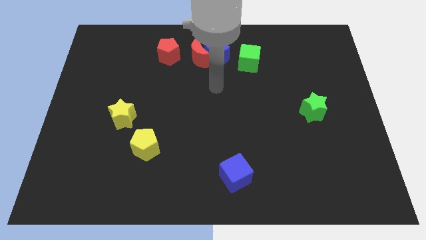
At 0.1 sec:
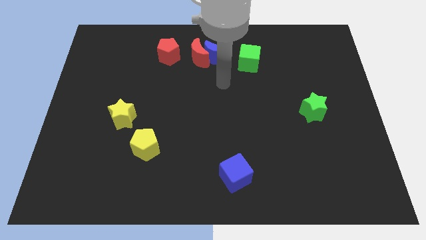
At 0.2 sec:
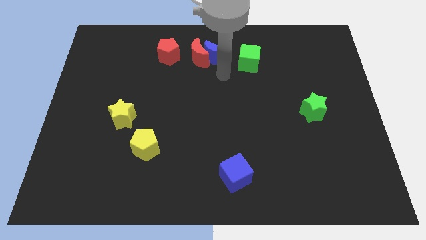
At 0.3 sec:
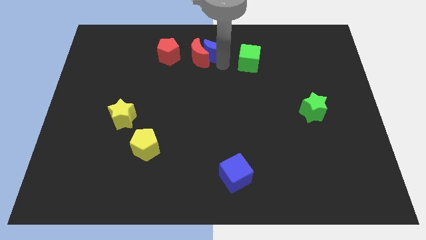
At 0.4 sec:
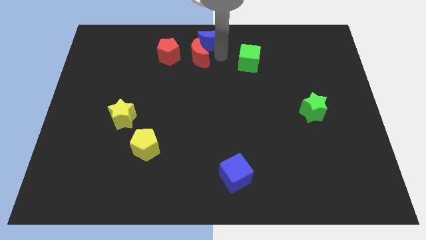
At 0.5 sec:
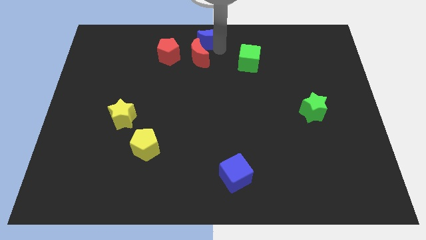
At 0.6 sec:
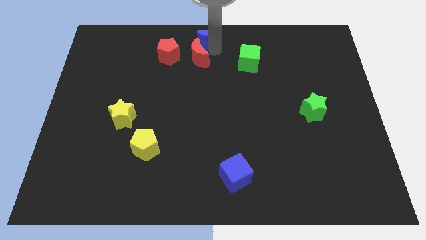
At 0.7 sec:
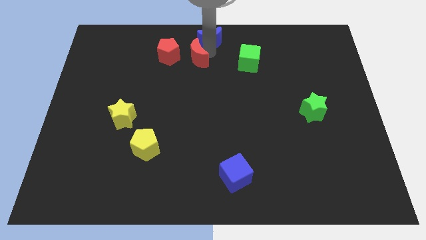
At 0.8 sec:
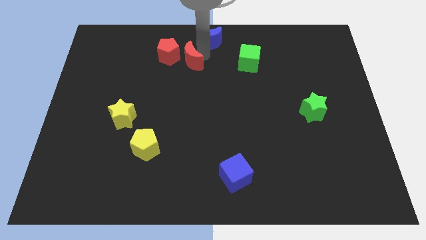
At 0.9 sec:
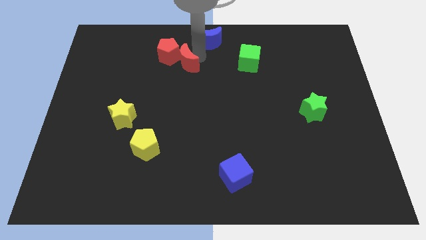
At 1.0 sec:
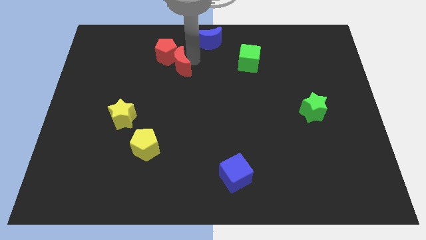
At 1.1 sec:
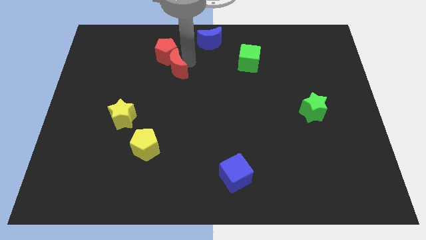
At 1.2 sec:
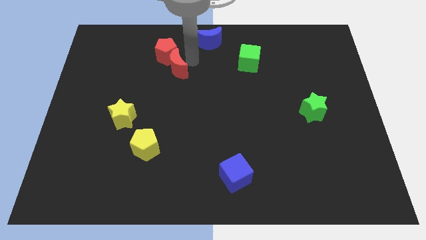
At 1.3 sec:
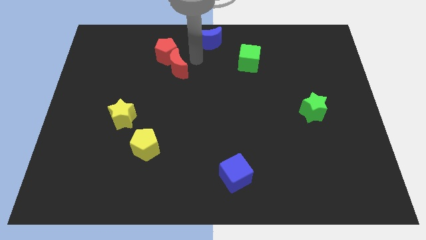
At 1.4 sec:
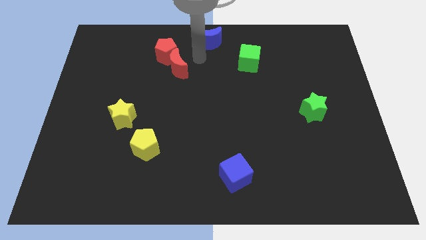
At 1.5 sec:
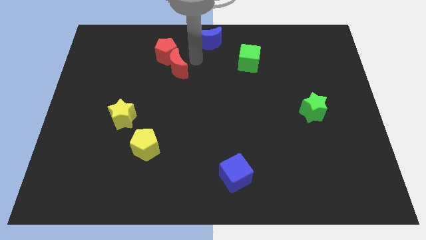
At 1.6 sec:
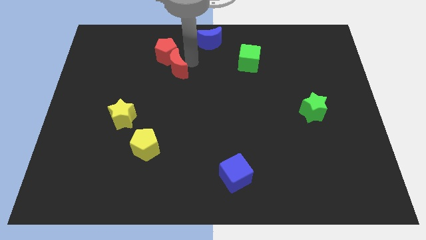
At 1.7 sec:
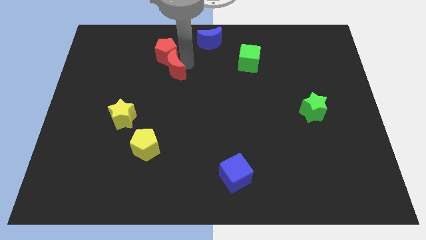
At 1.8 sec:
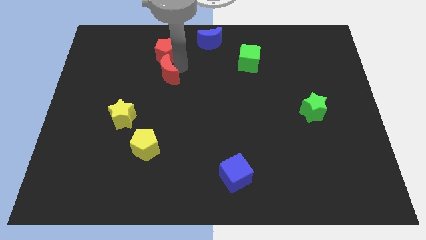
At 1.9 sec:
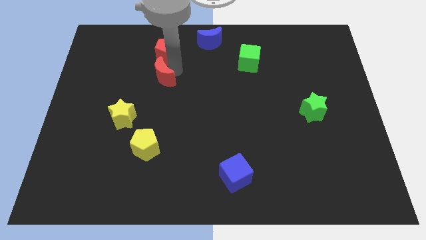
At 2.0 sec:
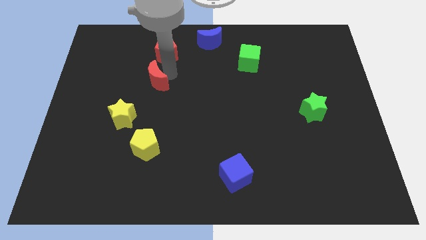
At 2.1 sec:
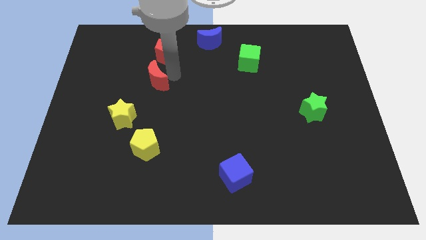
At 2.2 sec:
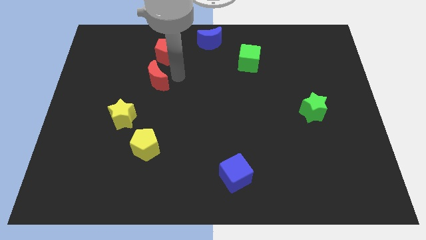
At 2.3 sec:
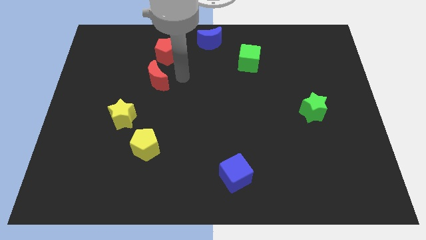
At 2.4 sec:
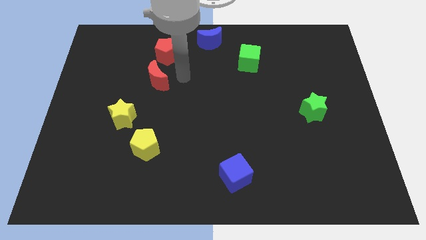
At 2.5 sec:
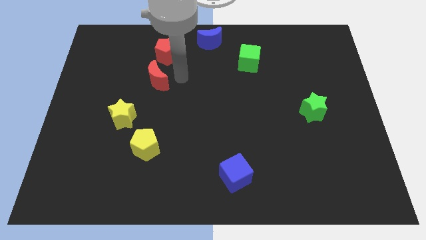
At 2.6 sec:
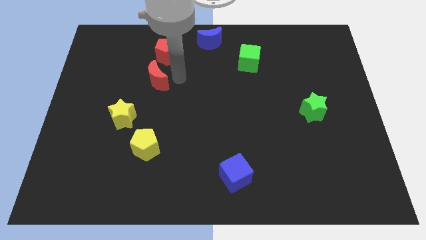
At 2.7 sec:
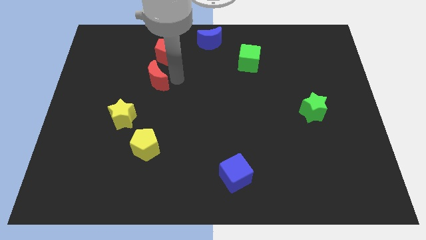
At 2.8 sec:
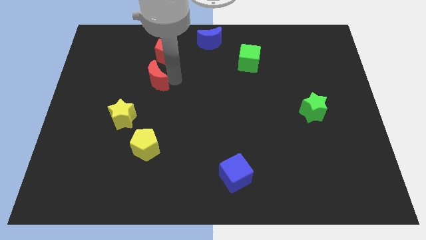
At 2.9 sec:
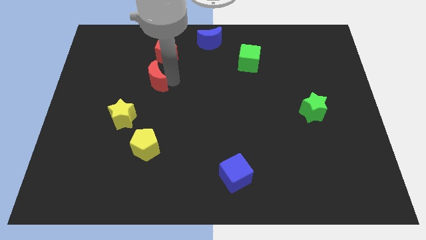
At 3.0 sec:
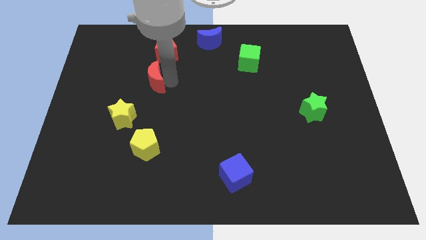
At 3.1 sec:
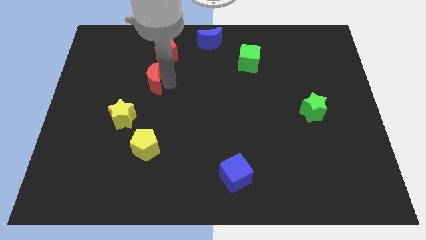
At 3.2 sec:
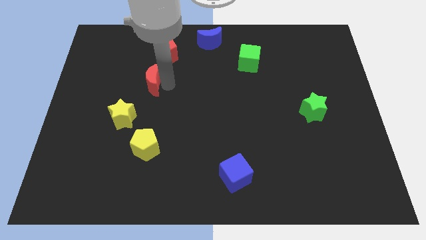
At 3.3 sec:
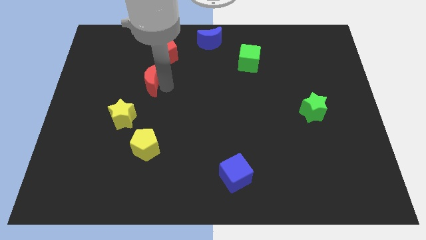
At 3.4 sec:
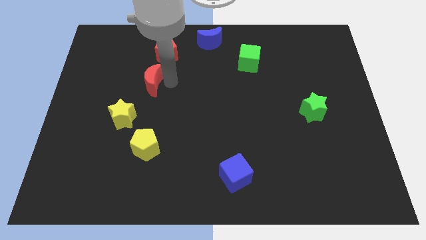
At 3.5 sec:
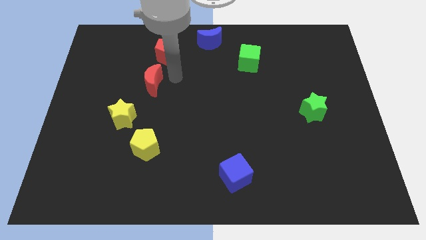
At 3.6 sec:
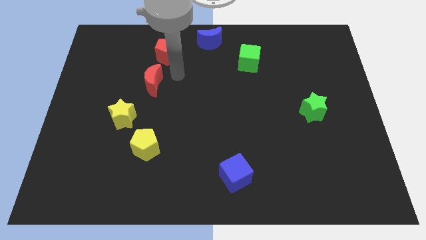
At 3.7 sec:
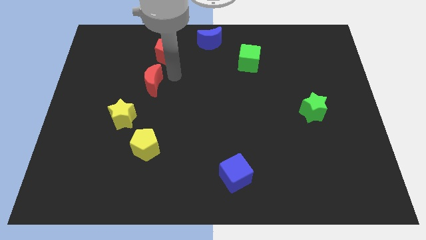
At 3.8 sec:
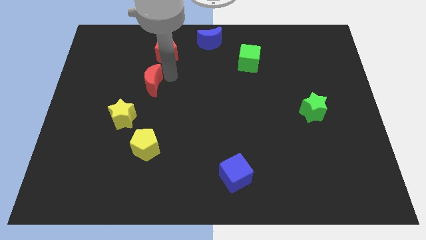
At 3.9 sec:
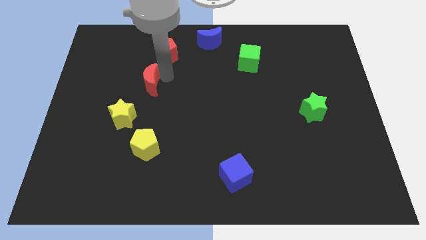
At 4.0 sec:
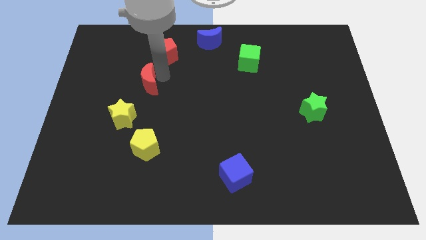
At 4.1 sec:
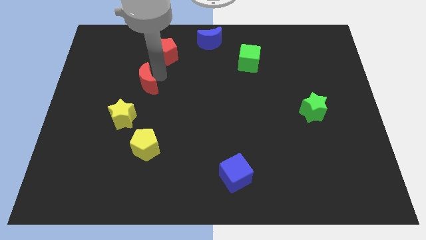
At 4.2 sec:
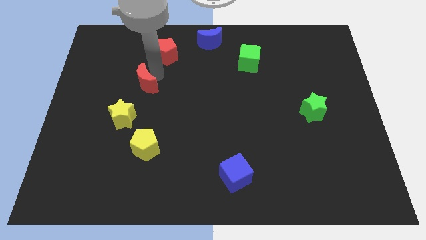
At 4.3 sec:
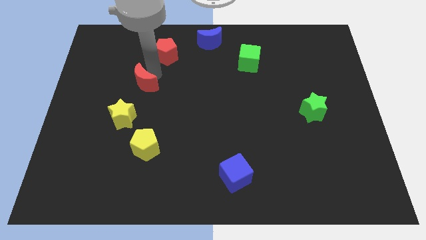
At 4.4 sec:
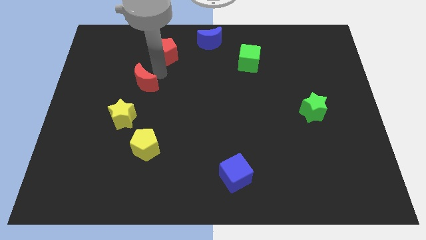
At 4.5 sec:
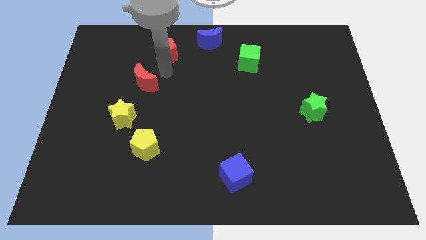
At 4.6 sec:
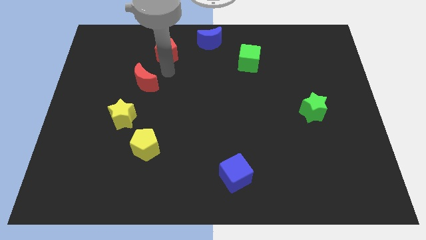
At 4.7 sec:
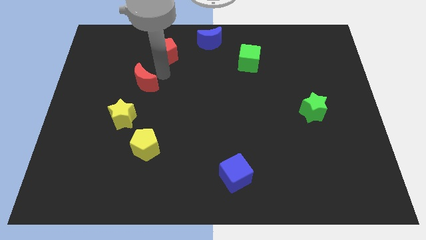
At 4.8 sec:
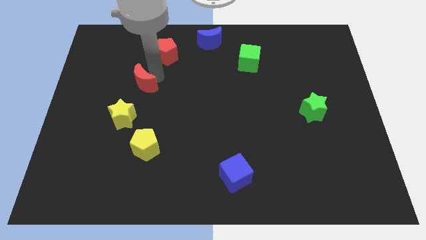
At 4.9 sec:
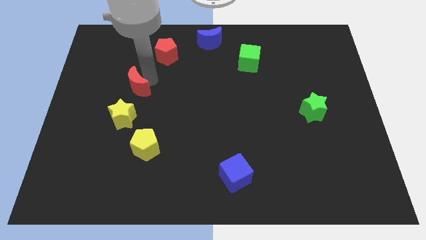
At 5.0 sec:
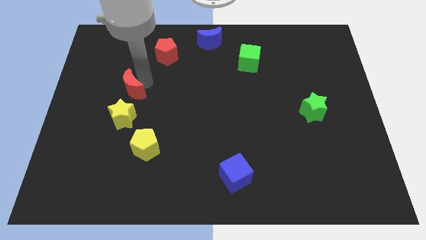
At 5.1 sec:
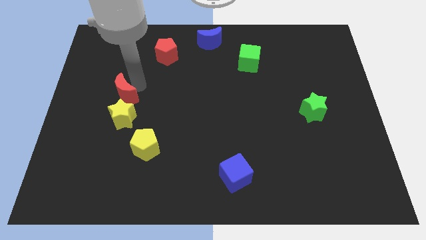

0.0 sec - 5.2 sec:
slide the red moon downwards and to the left diagonally

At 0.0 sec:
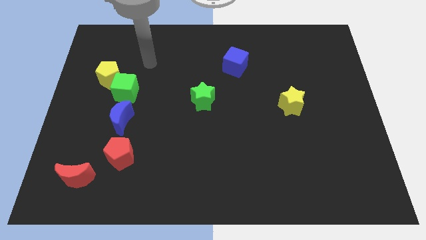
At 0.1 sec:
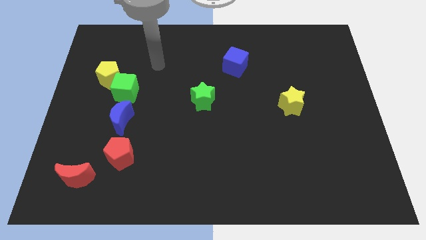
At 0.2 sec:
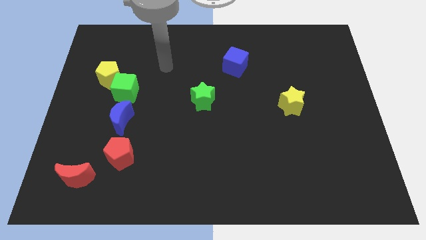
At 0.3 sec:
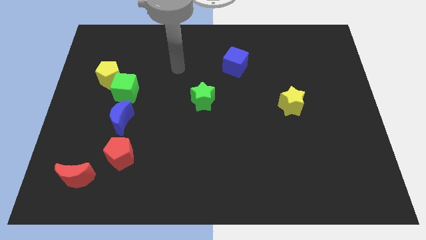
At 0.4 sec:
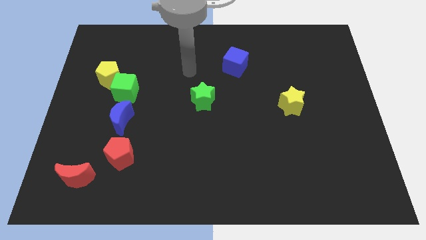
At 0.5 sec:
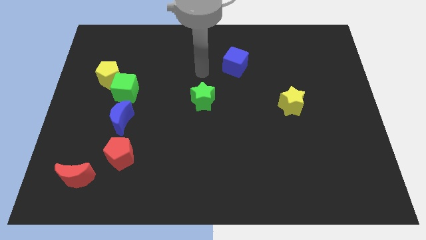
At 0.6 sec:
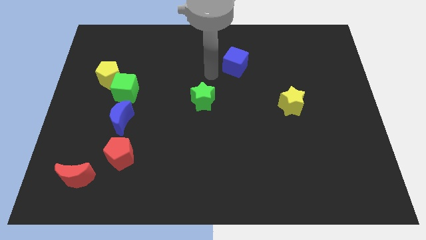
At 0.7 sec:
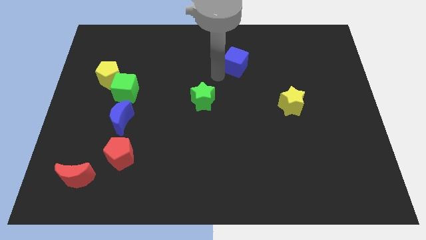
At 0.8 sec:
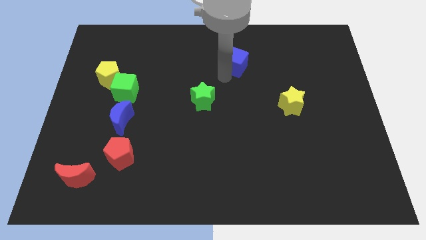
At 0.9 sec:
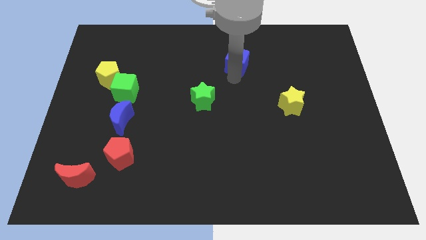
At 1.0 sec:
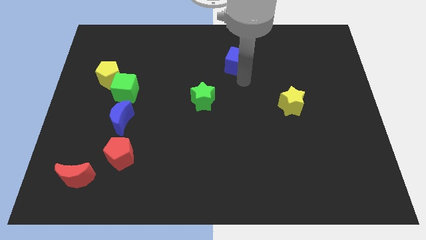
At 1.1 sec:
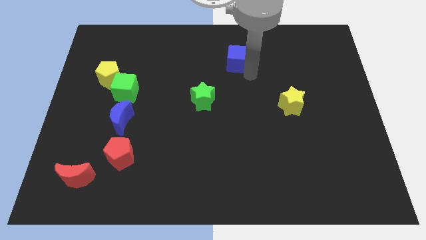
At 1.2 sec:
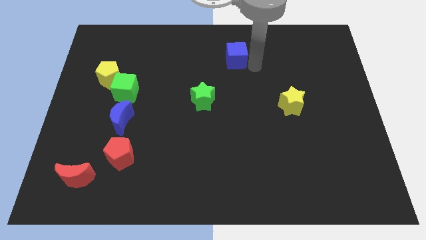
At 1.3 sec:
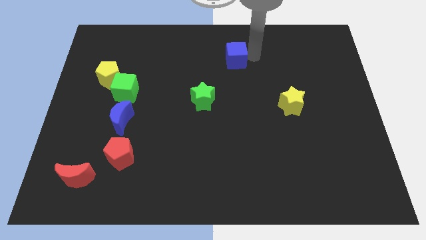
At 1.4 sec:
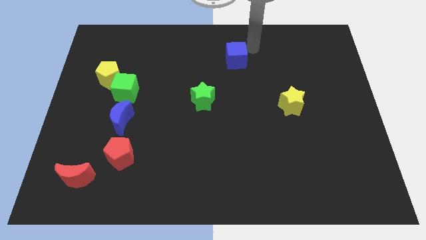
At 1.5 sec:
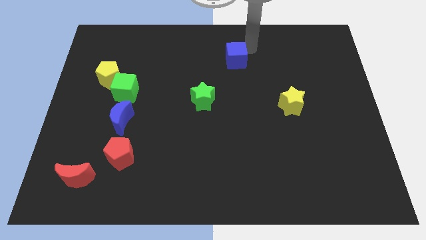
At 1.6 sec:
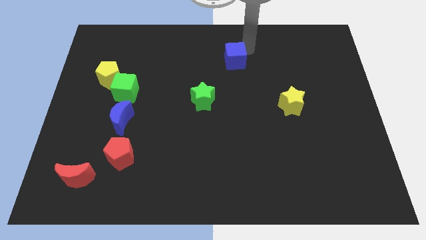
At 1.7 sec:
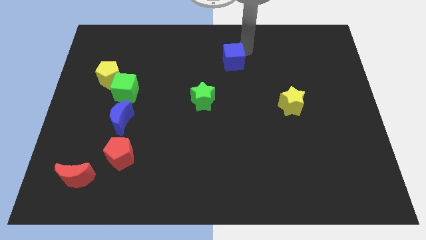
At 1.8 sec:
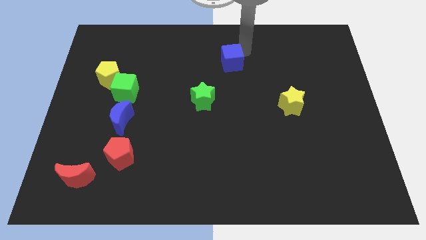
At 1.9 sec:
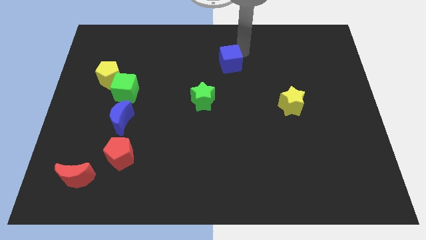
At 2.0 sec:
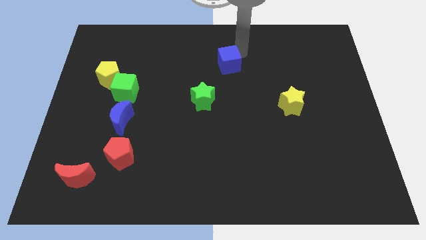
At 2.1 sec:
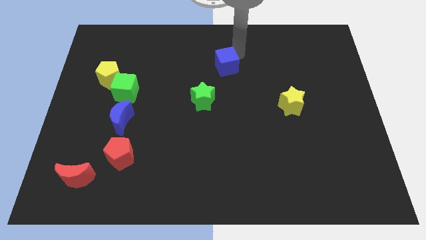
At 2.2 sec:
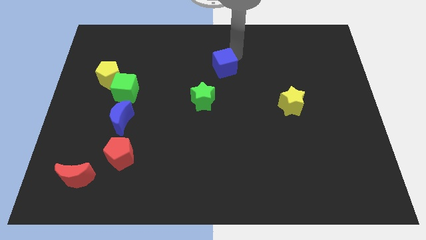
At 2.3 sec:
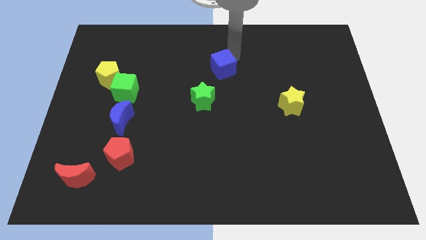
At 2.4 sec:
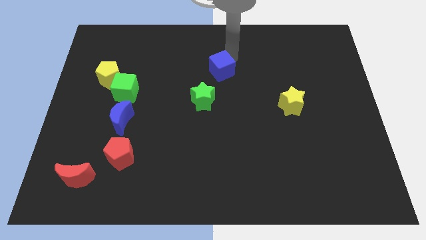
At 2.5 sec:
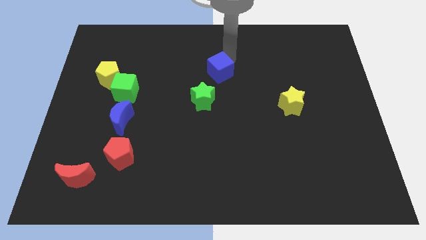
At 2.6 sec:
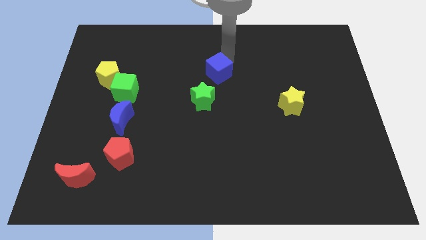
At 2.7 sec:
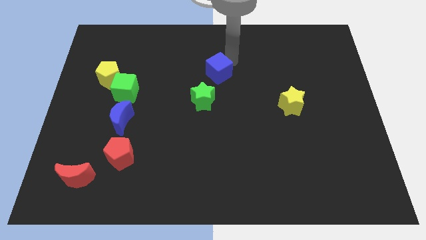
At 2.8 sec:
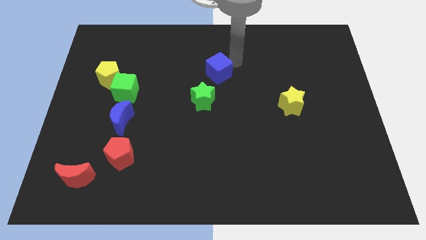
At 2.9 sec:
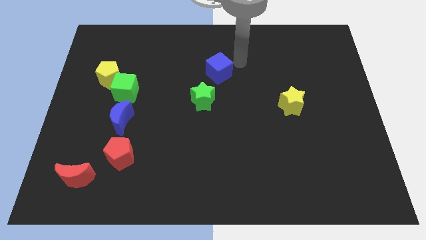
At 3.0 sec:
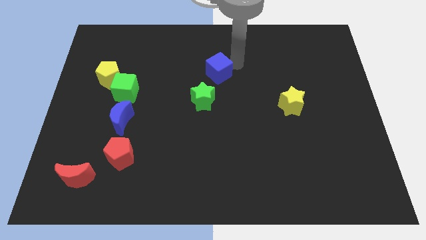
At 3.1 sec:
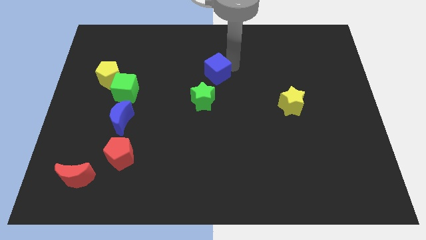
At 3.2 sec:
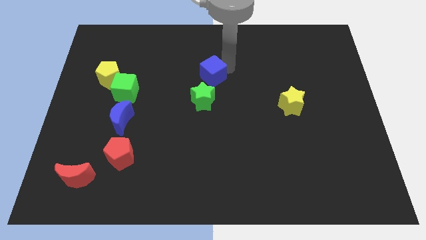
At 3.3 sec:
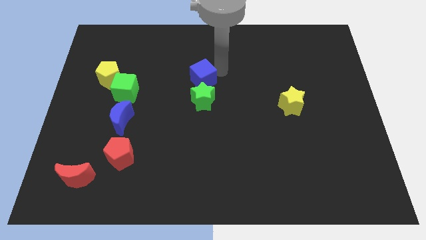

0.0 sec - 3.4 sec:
push the blue cube down and then left a little bit

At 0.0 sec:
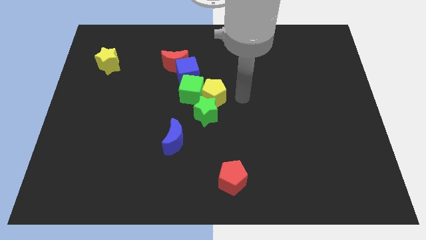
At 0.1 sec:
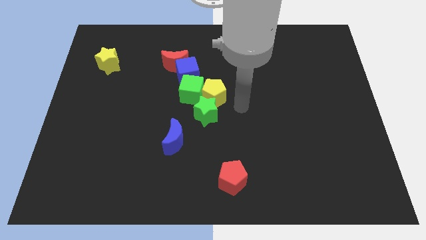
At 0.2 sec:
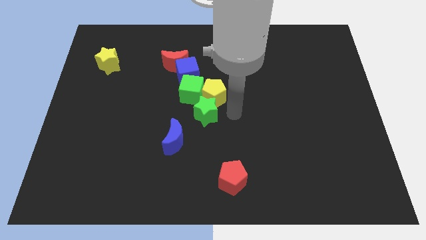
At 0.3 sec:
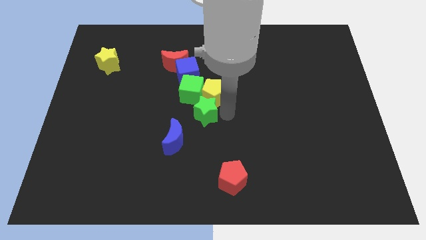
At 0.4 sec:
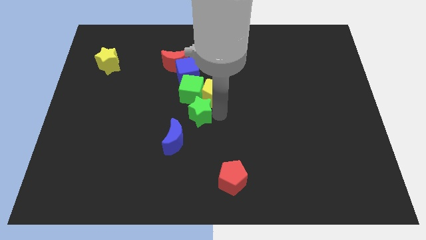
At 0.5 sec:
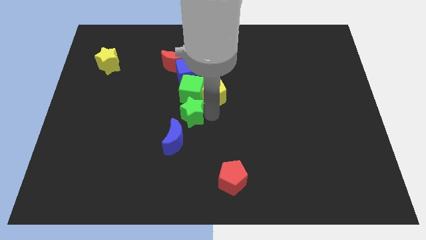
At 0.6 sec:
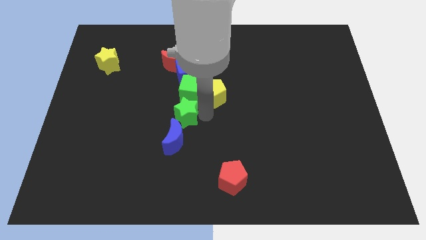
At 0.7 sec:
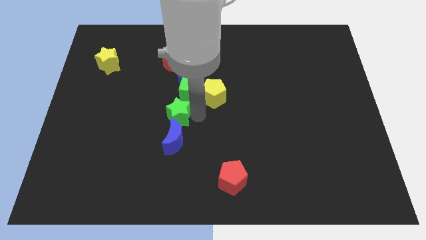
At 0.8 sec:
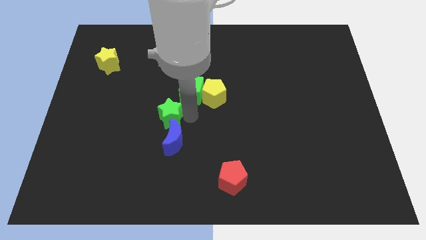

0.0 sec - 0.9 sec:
push the green star a little bit left
